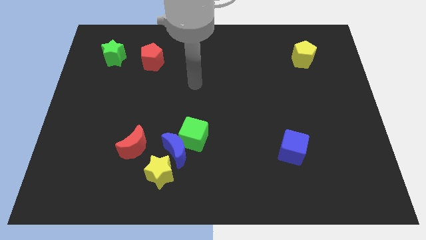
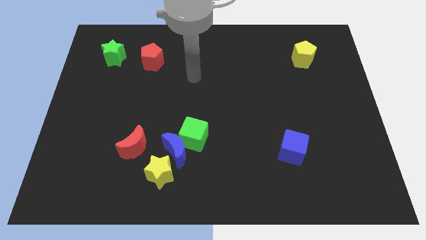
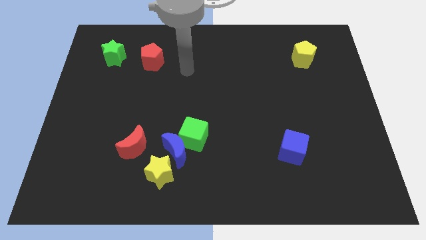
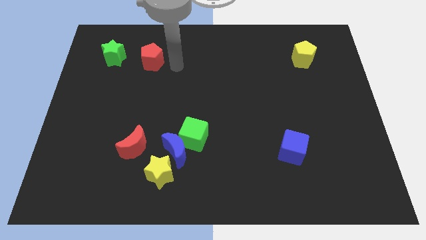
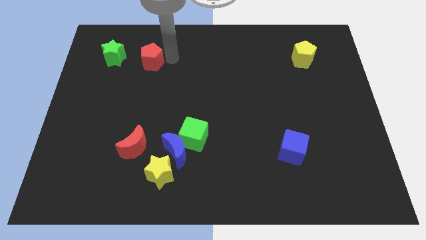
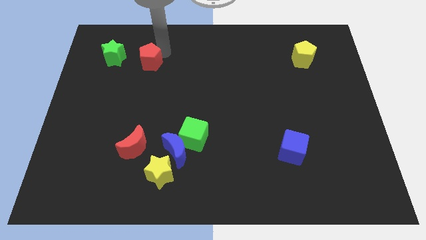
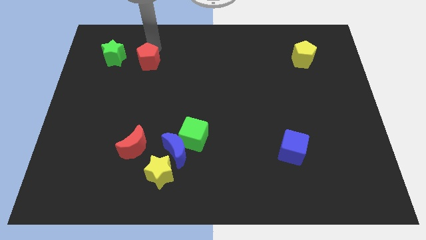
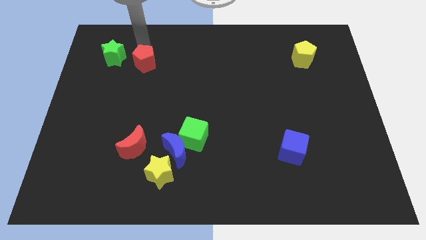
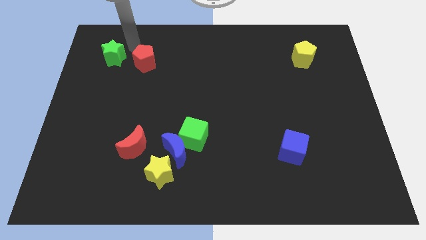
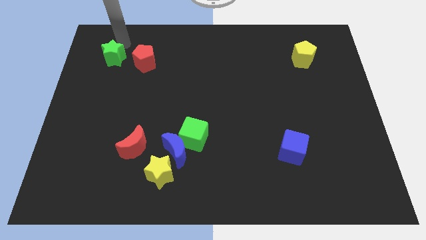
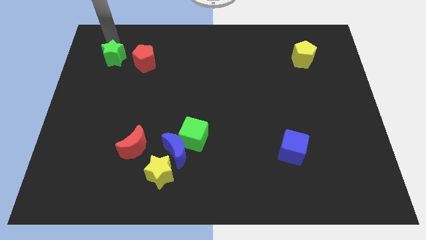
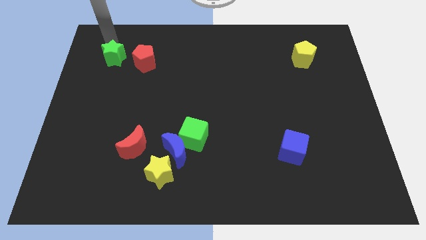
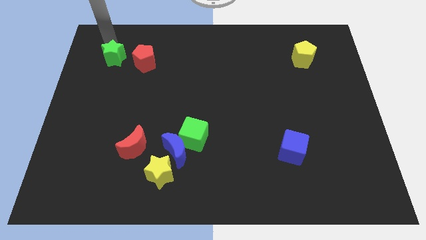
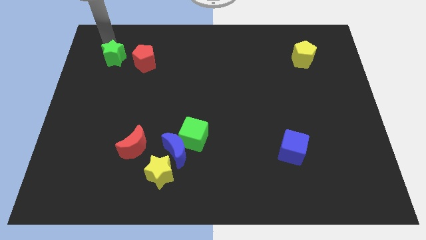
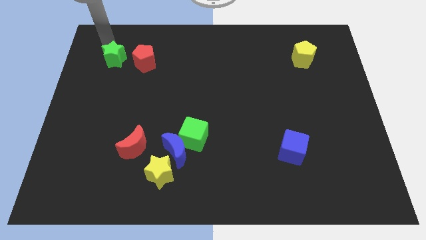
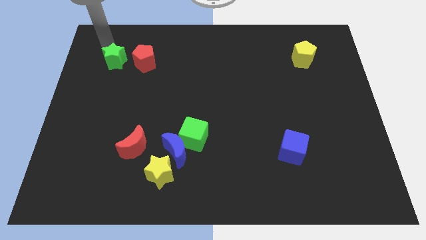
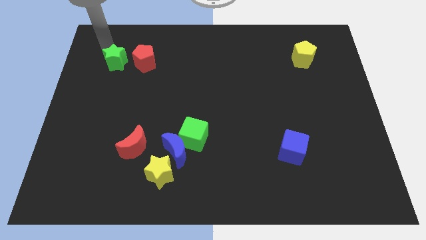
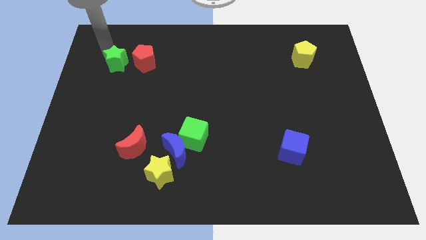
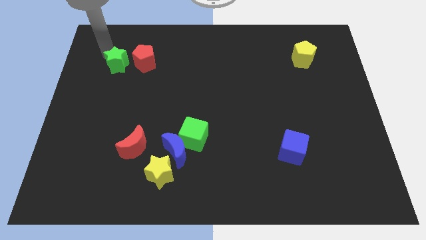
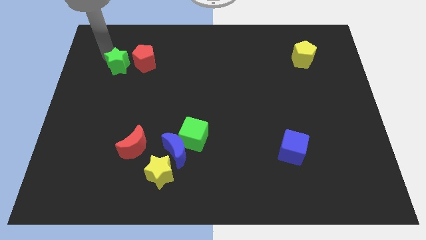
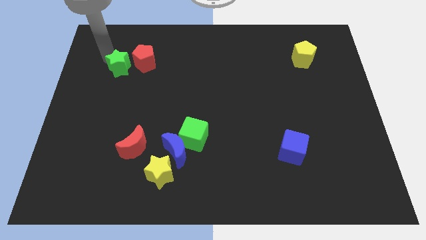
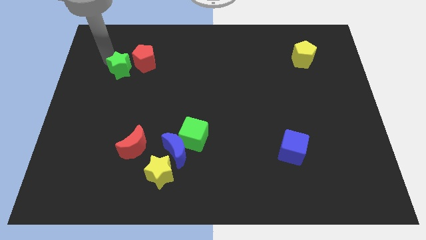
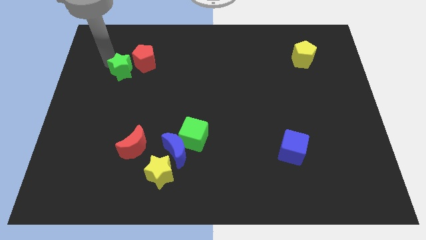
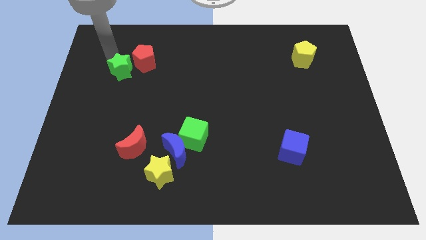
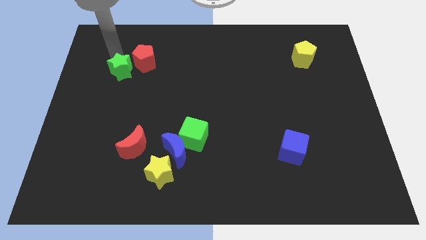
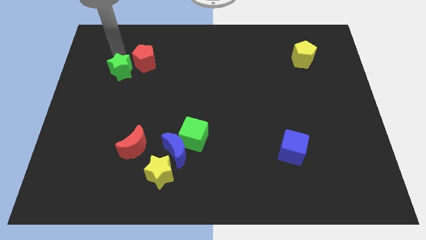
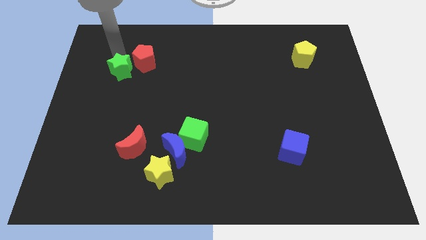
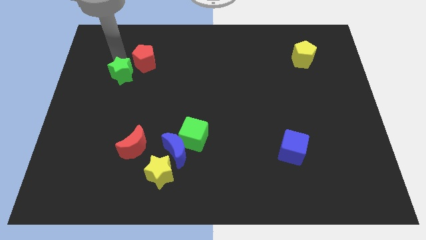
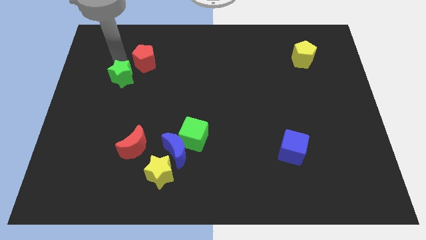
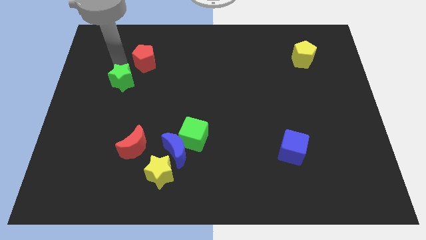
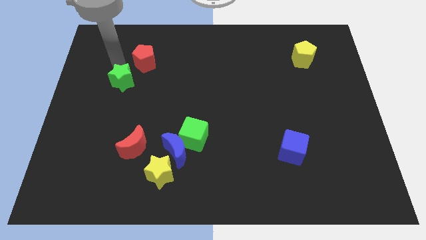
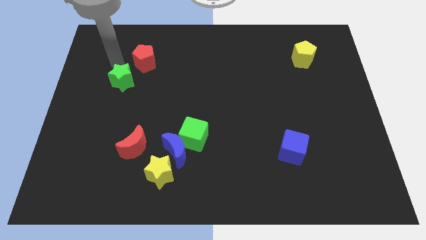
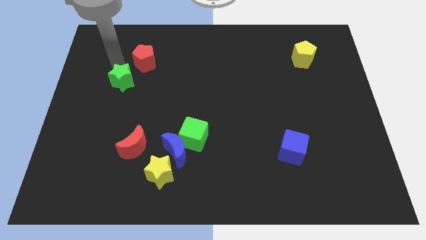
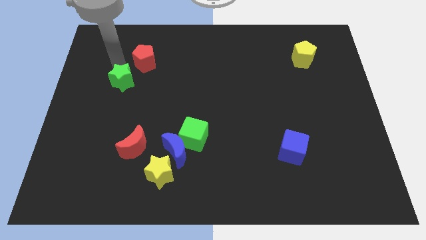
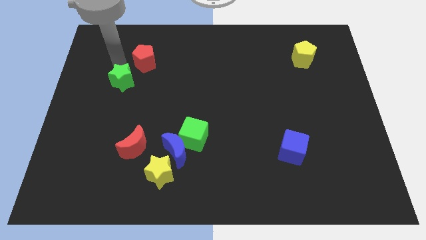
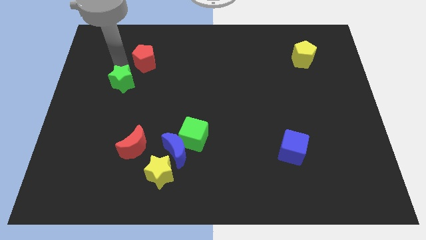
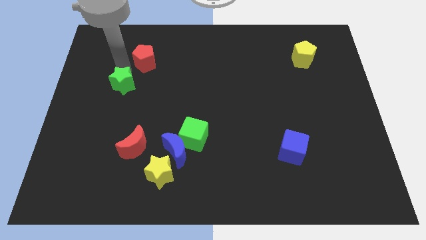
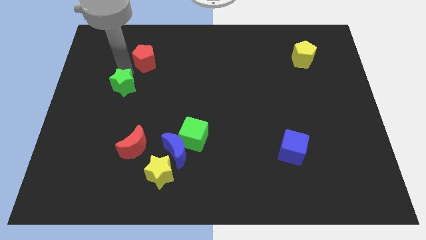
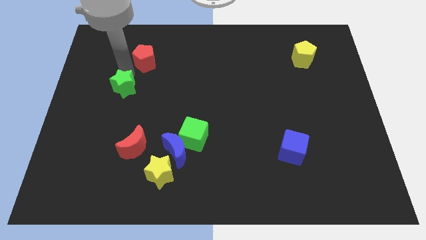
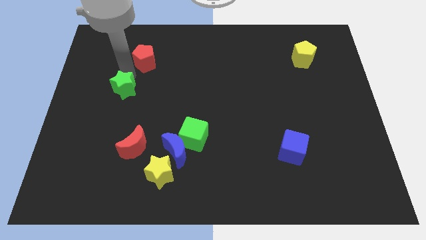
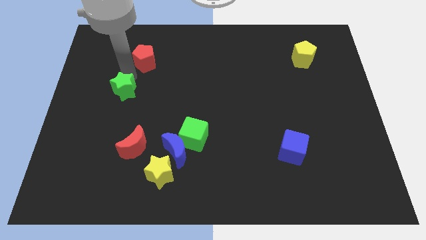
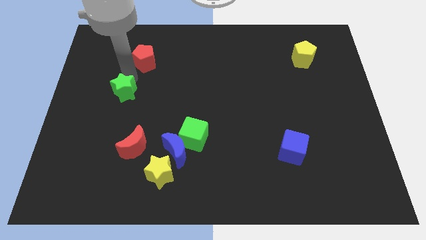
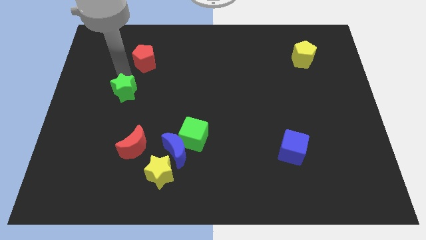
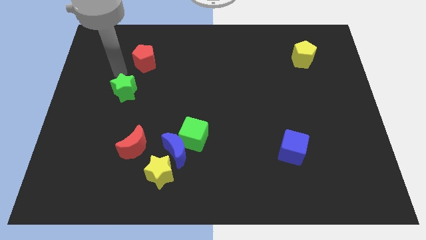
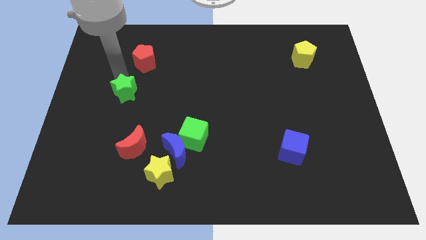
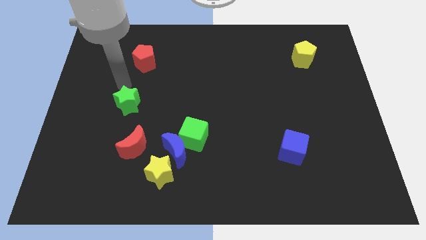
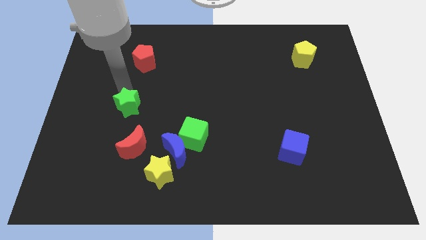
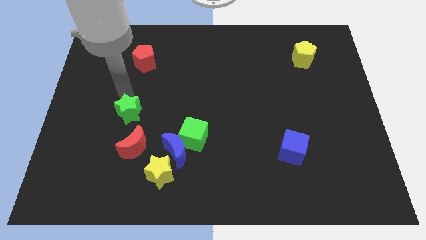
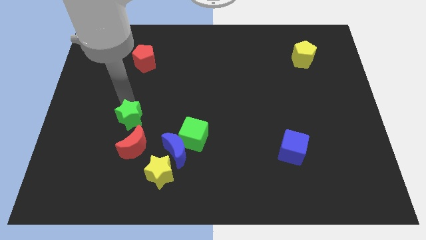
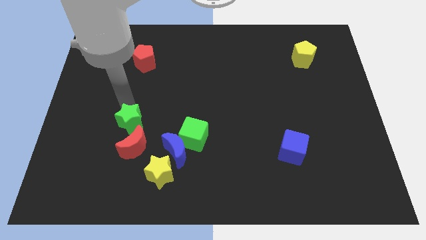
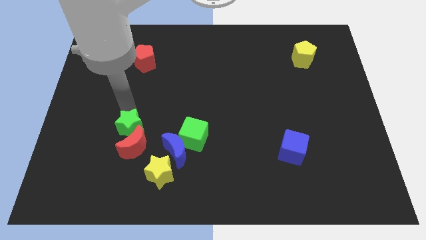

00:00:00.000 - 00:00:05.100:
slide the green star towards the red moon

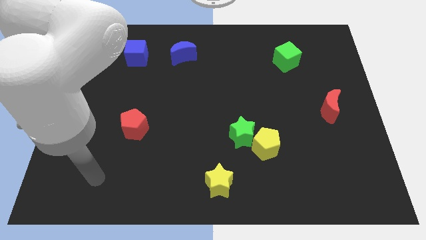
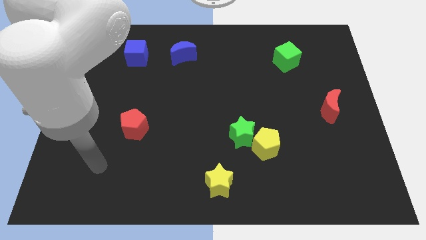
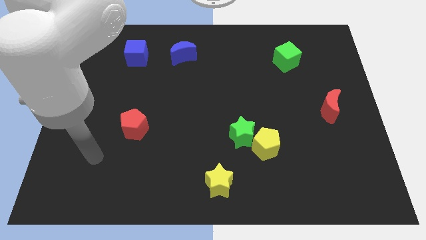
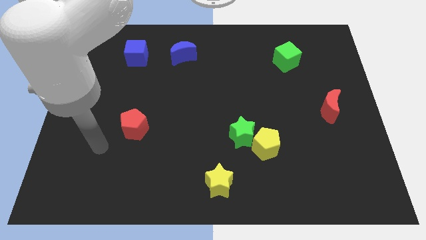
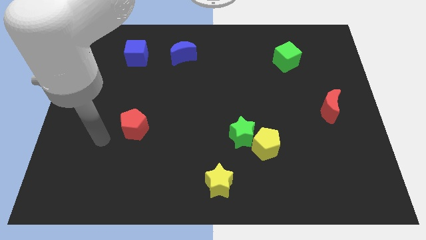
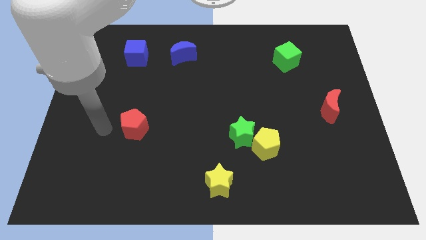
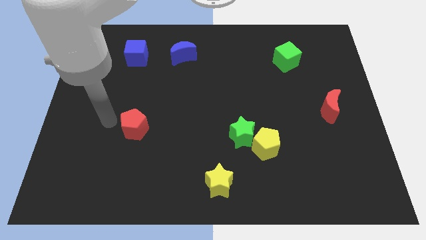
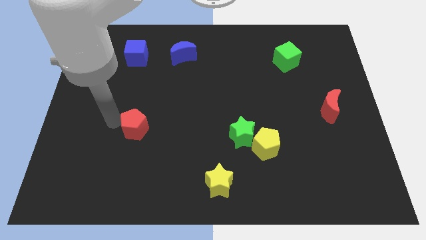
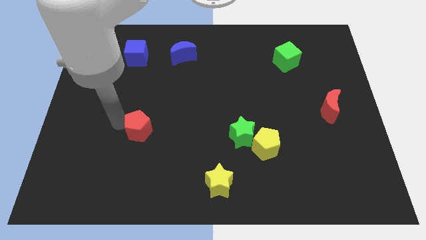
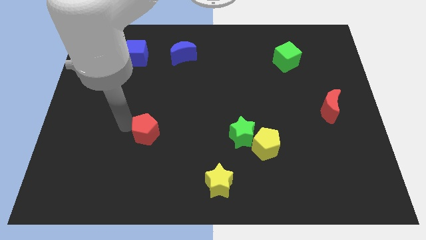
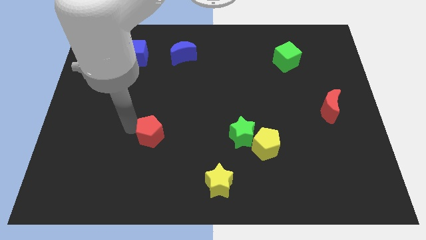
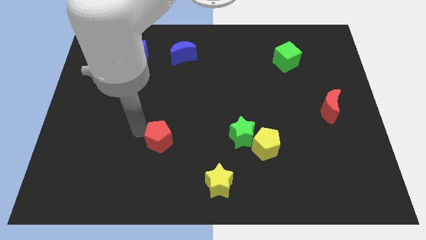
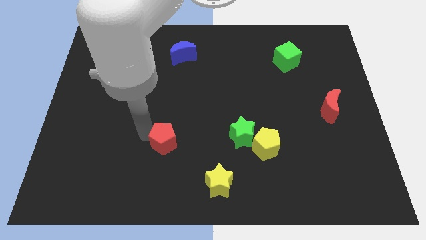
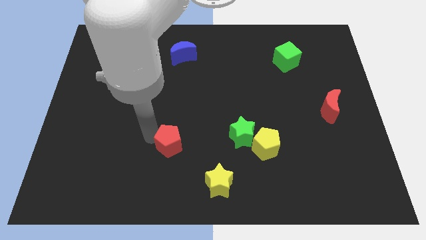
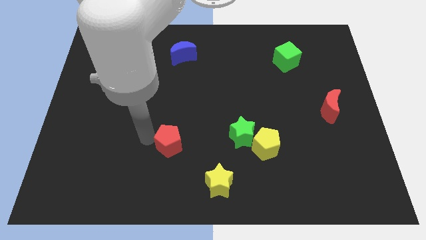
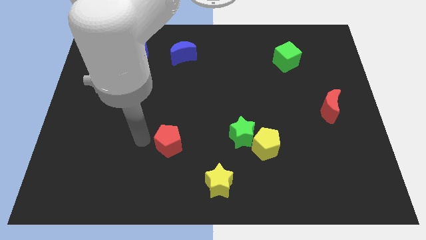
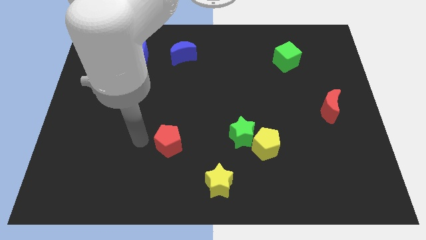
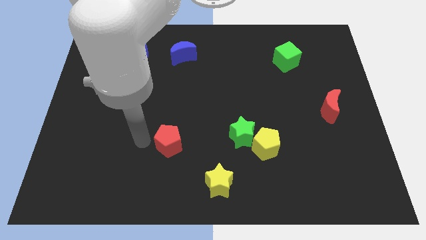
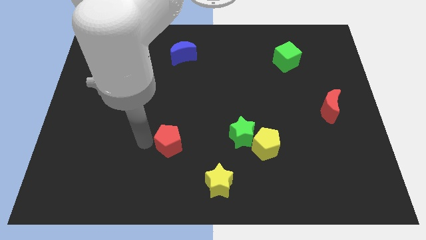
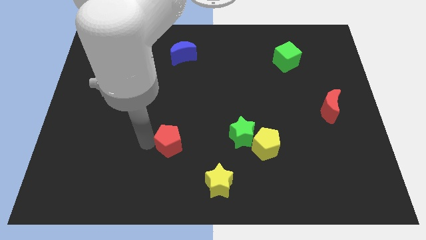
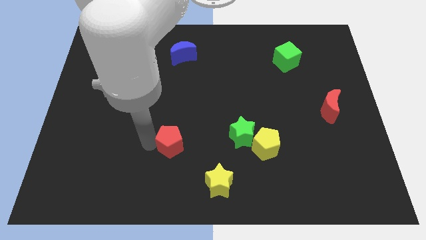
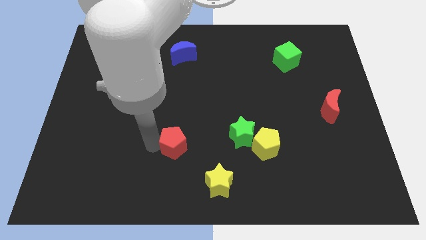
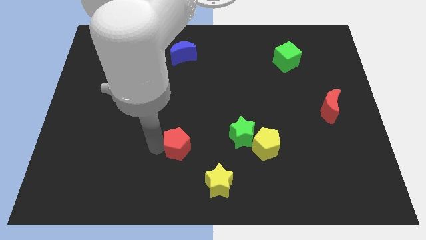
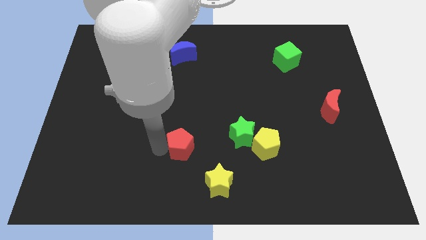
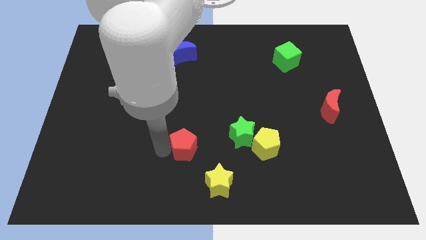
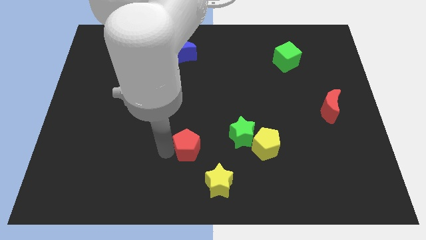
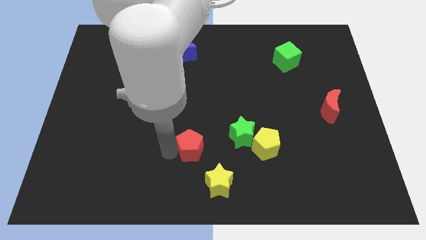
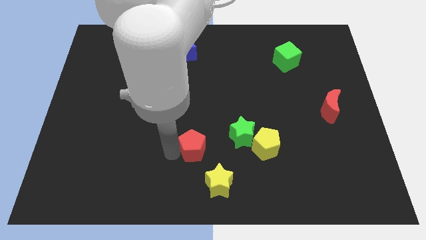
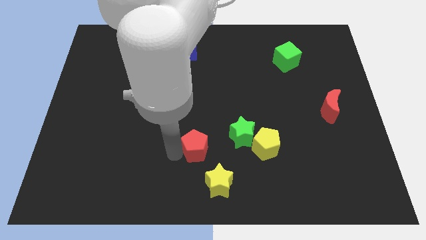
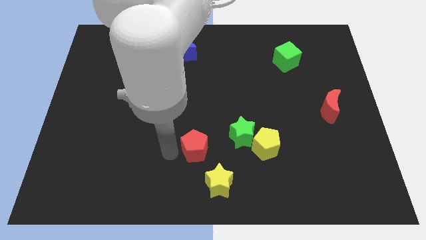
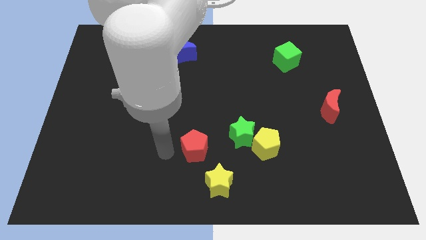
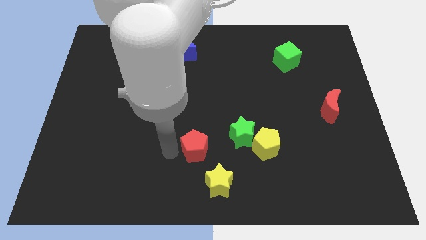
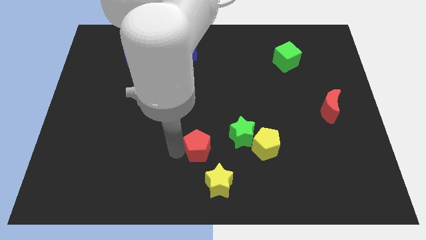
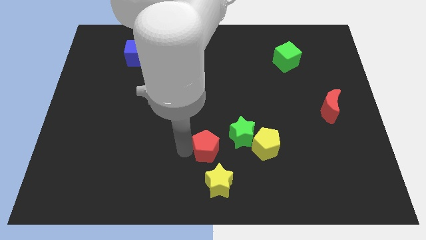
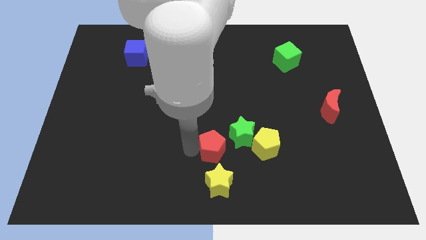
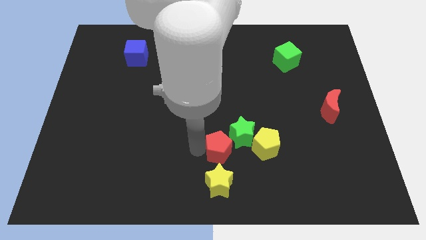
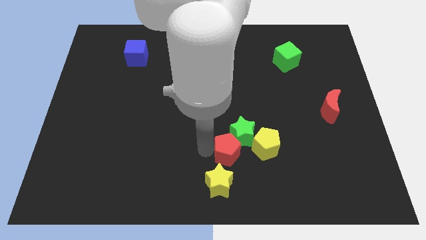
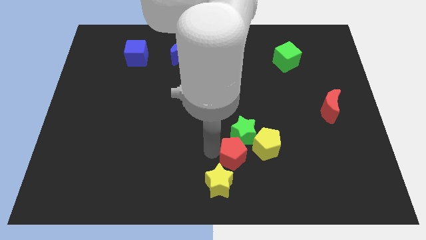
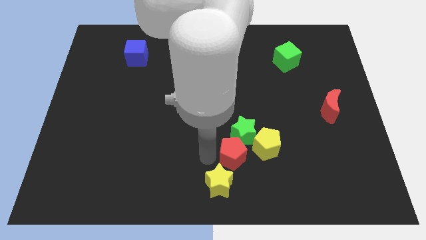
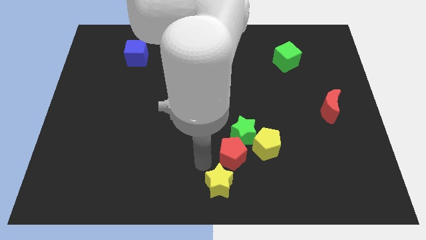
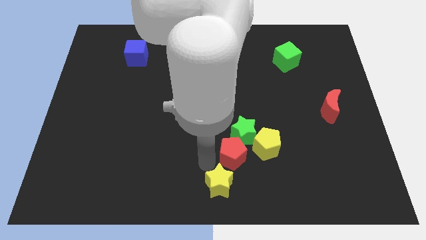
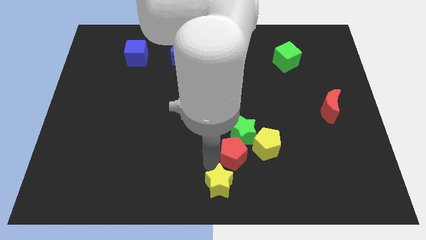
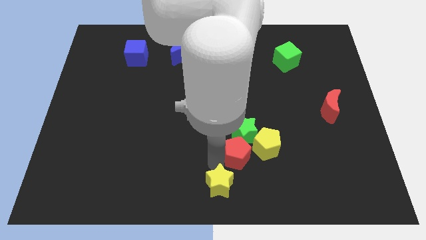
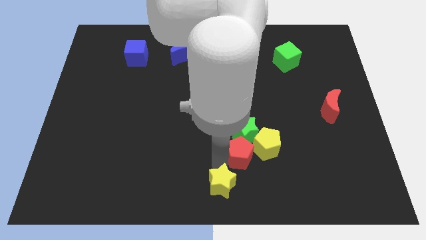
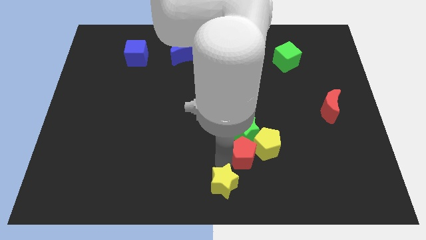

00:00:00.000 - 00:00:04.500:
slide the red pentagon close to the yellow pentagon
